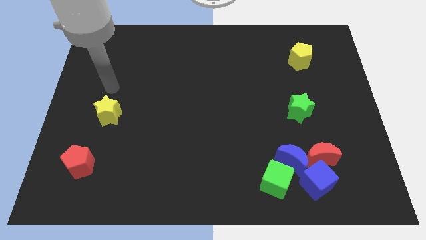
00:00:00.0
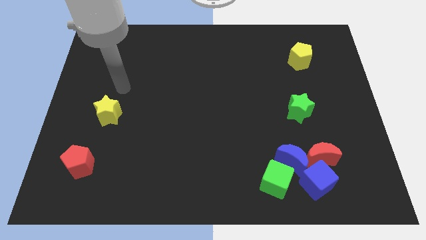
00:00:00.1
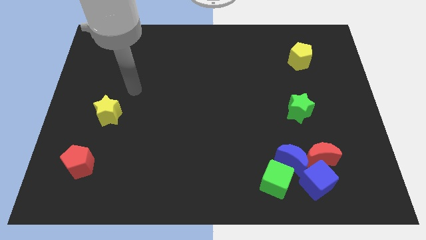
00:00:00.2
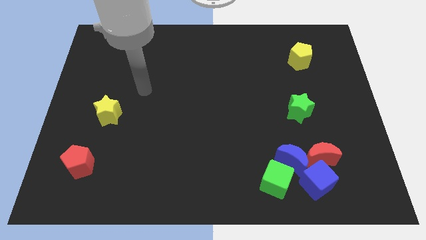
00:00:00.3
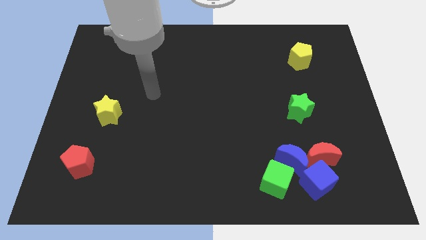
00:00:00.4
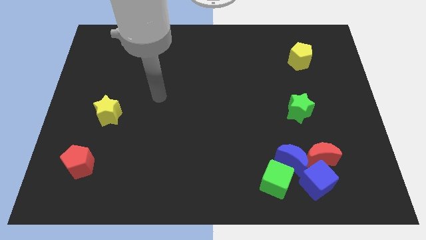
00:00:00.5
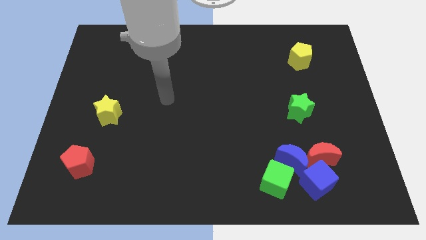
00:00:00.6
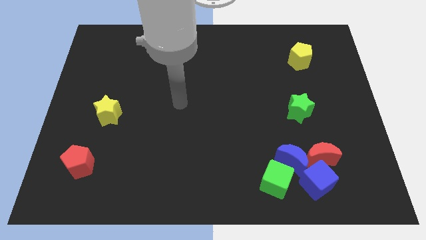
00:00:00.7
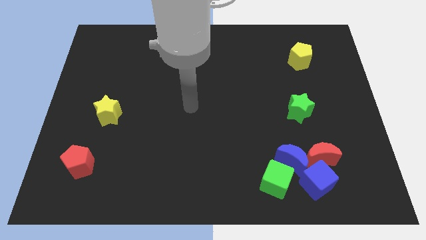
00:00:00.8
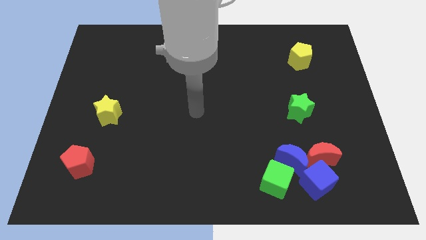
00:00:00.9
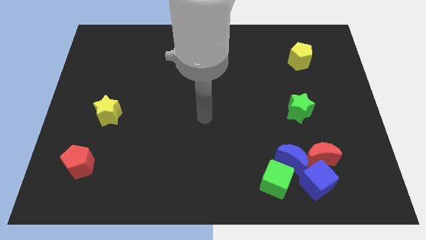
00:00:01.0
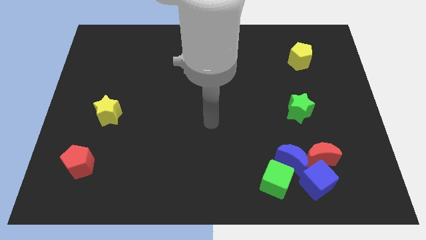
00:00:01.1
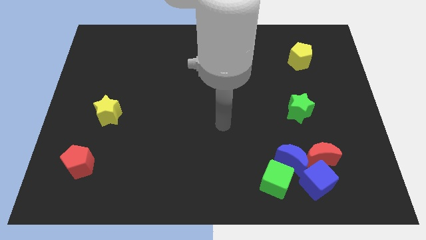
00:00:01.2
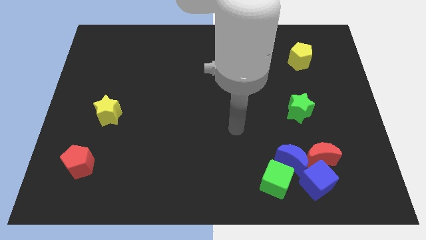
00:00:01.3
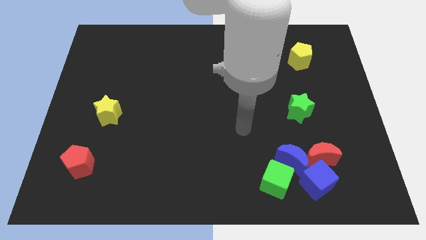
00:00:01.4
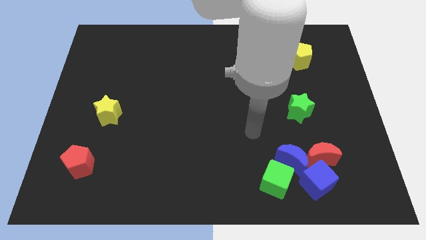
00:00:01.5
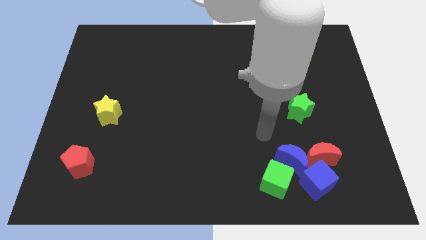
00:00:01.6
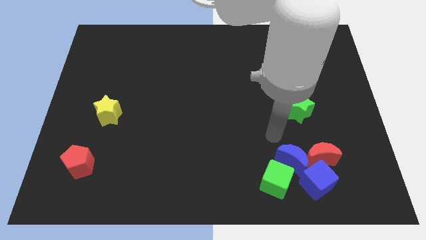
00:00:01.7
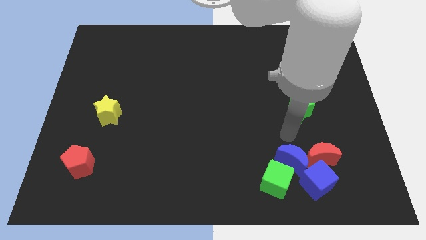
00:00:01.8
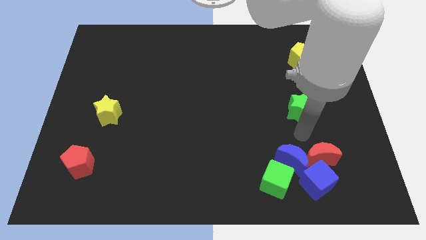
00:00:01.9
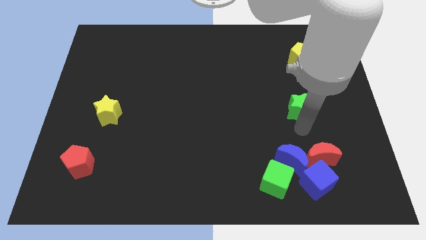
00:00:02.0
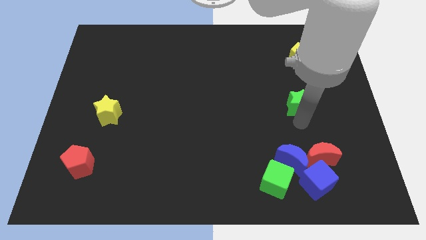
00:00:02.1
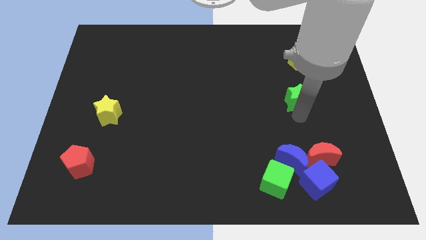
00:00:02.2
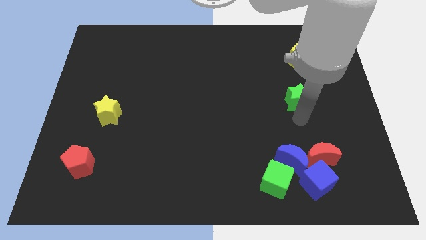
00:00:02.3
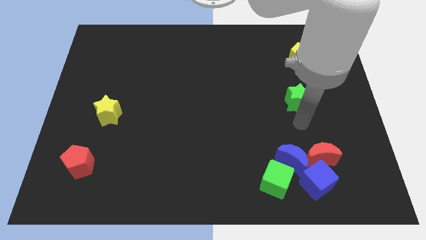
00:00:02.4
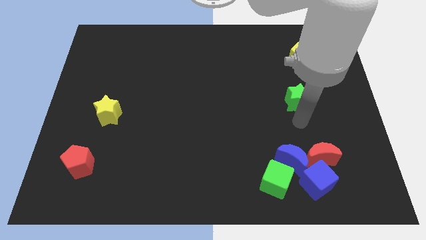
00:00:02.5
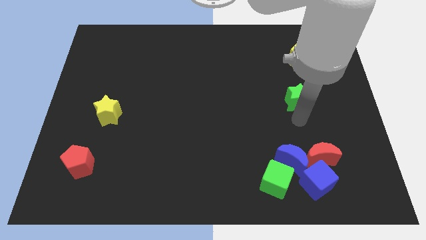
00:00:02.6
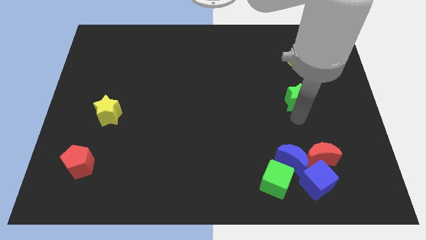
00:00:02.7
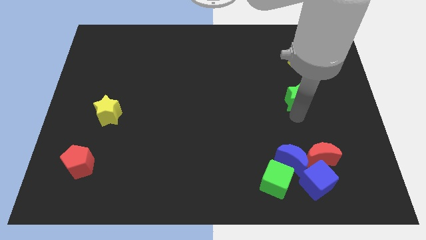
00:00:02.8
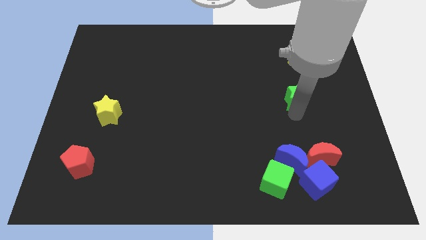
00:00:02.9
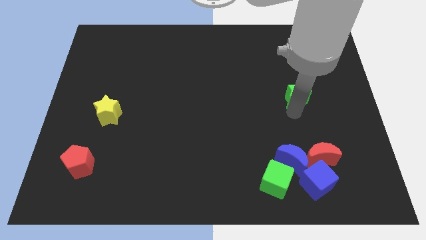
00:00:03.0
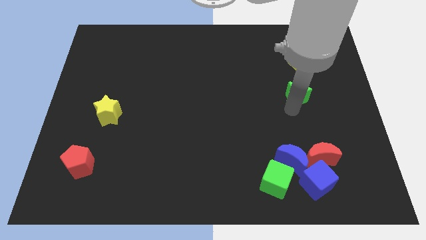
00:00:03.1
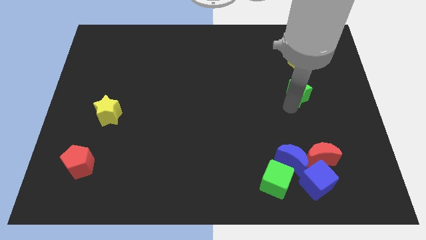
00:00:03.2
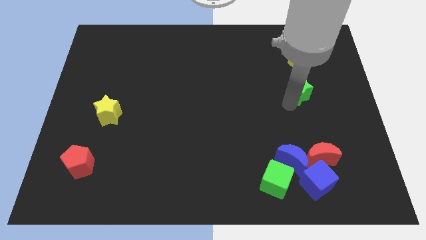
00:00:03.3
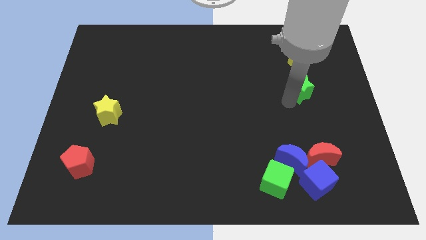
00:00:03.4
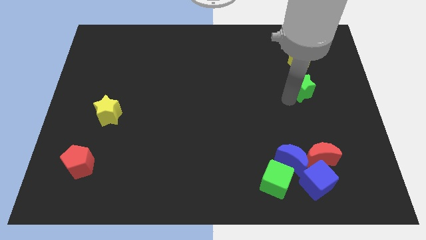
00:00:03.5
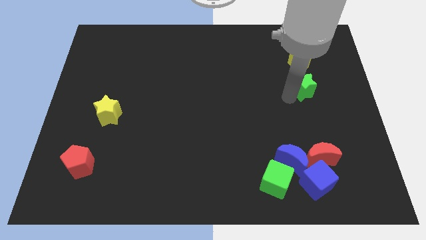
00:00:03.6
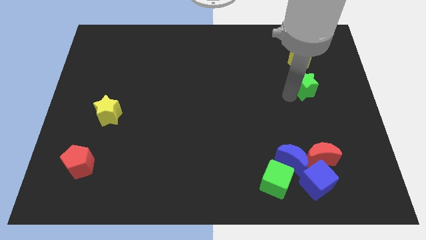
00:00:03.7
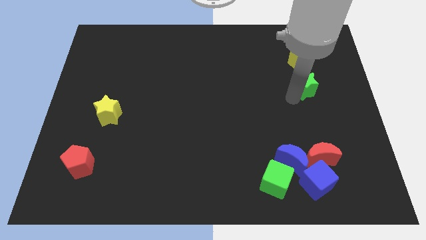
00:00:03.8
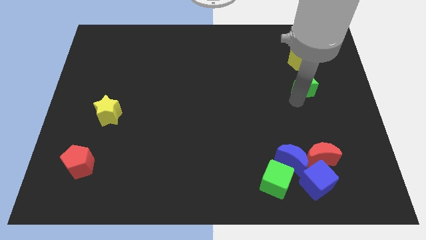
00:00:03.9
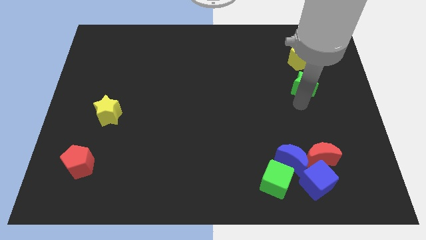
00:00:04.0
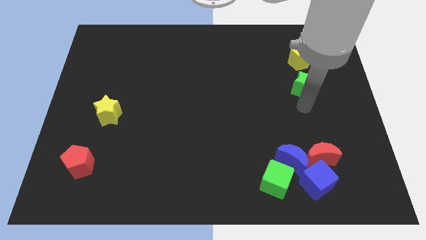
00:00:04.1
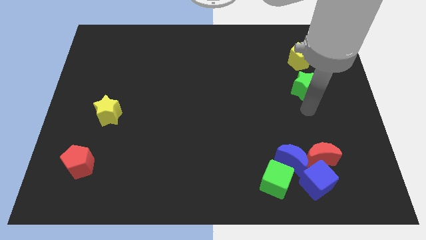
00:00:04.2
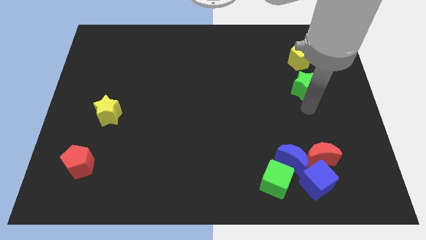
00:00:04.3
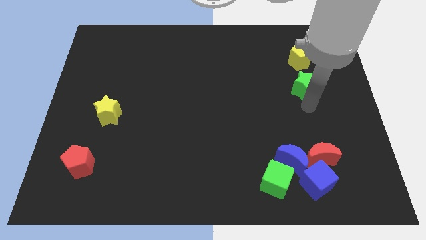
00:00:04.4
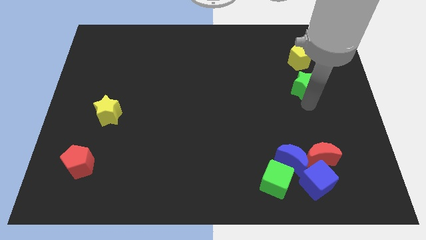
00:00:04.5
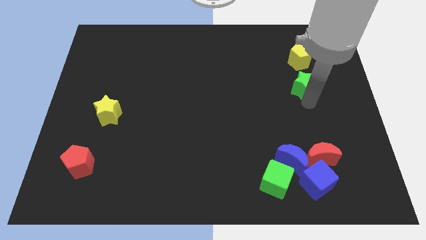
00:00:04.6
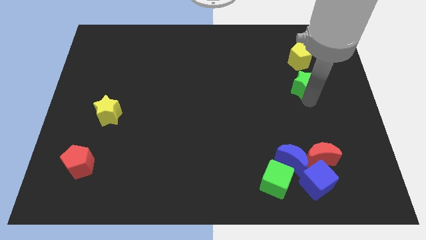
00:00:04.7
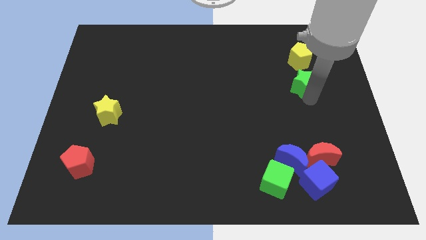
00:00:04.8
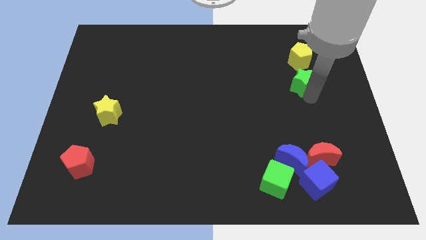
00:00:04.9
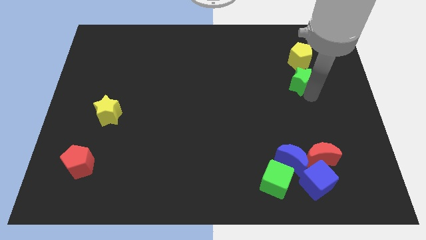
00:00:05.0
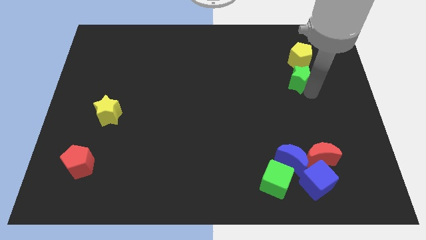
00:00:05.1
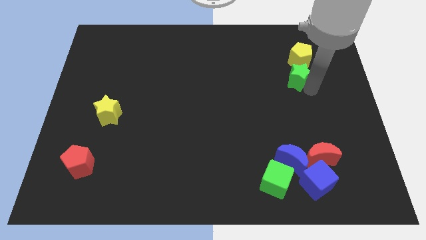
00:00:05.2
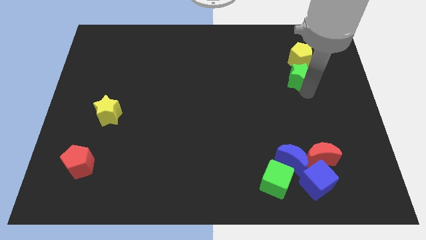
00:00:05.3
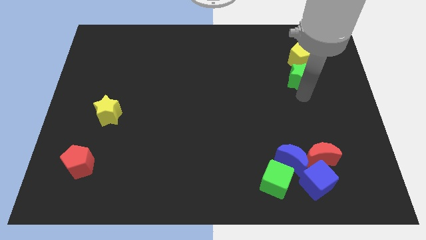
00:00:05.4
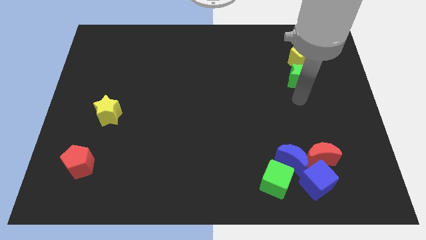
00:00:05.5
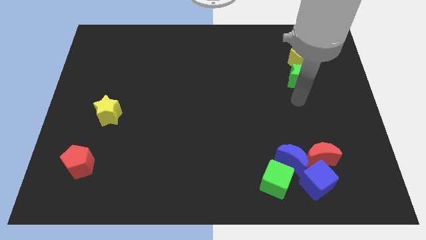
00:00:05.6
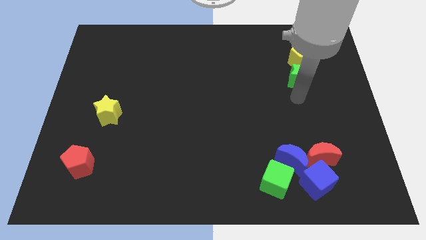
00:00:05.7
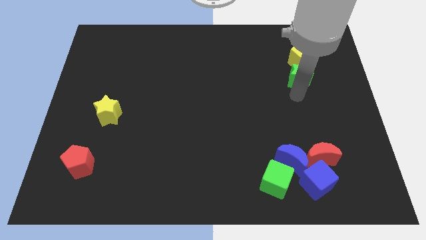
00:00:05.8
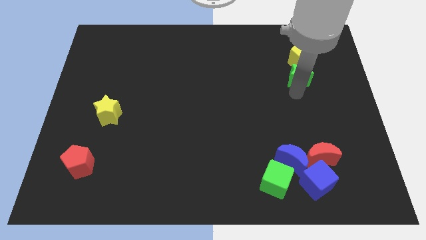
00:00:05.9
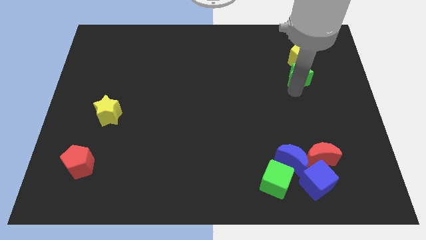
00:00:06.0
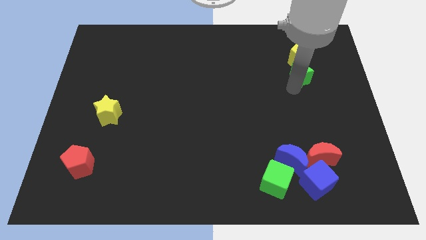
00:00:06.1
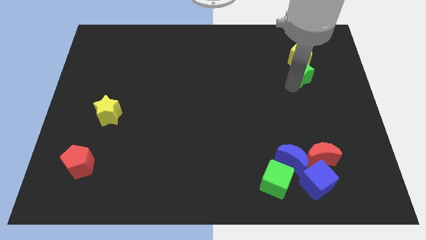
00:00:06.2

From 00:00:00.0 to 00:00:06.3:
slide the green star next to the yellow pentagon

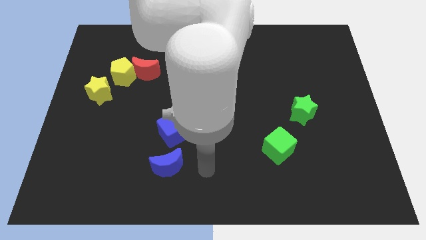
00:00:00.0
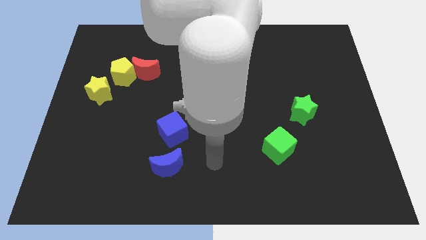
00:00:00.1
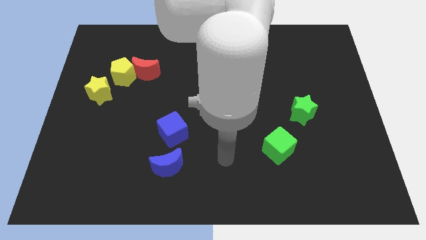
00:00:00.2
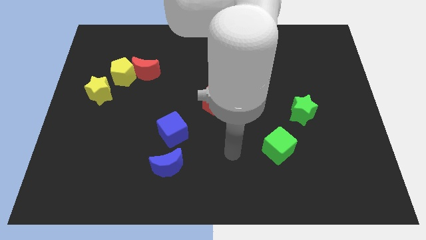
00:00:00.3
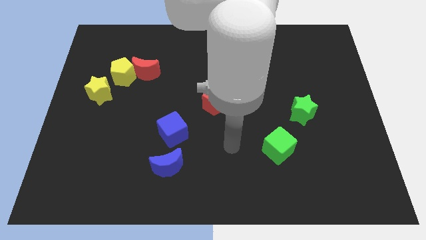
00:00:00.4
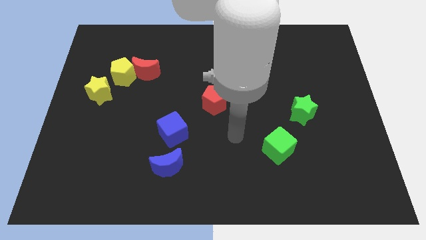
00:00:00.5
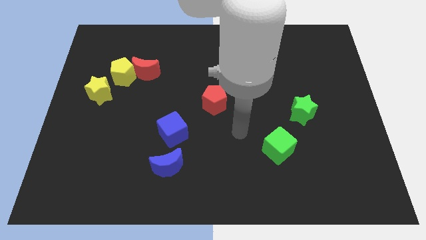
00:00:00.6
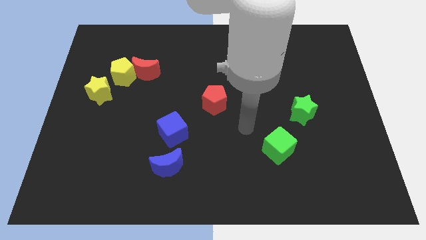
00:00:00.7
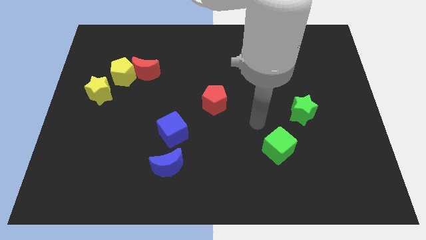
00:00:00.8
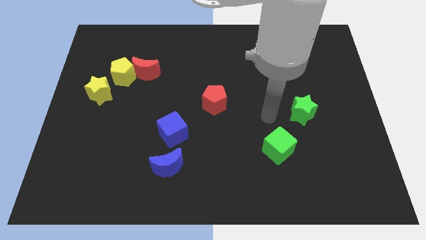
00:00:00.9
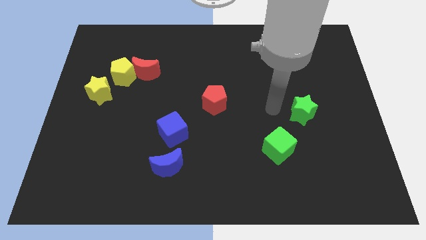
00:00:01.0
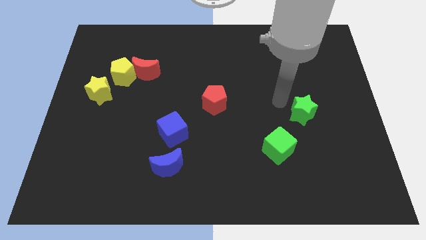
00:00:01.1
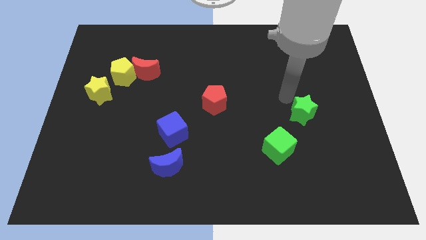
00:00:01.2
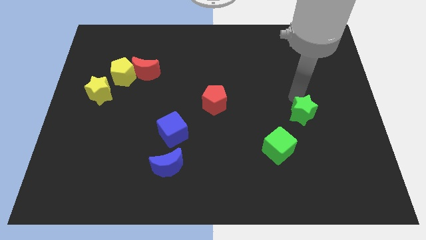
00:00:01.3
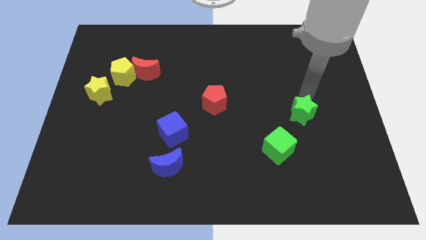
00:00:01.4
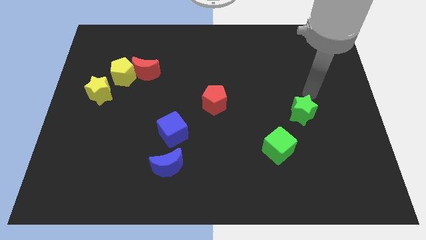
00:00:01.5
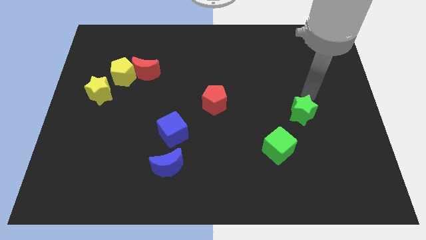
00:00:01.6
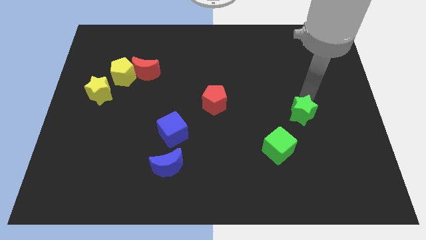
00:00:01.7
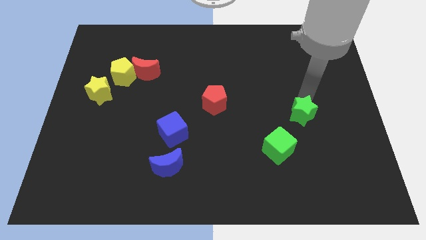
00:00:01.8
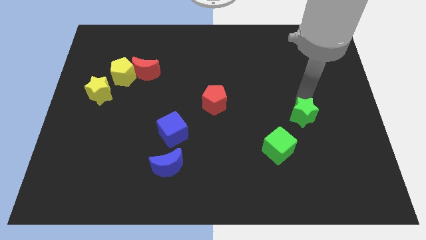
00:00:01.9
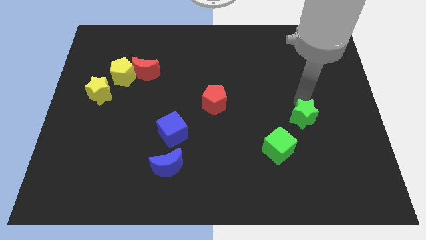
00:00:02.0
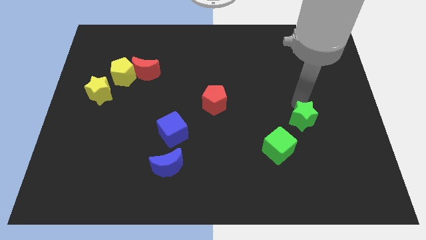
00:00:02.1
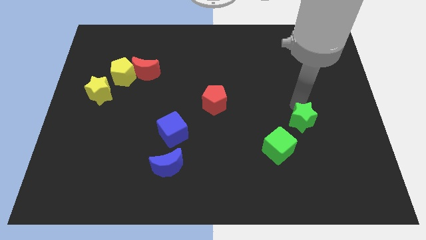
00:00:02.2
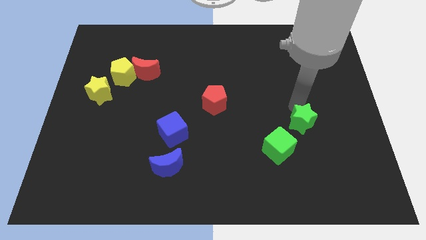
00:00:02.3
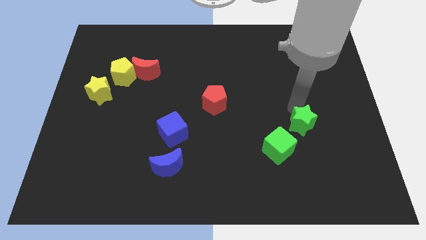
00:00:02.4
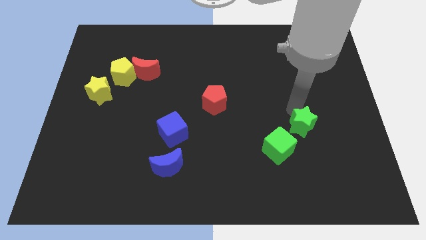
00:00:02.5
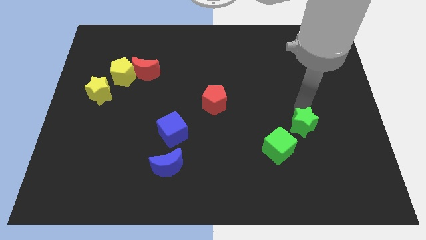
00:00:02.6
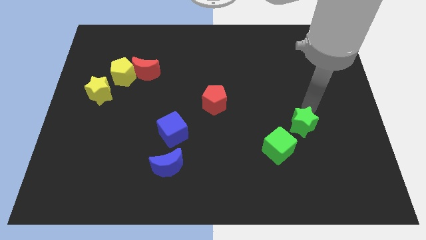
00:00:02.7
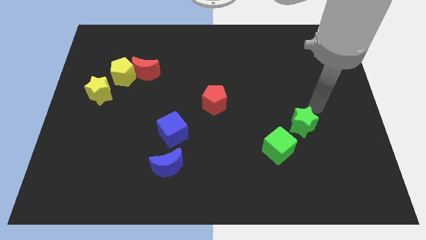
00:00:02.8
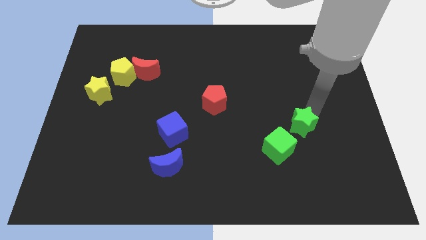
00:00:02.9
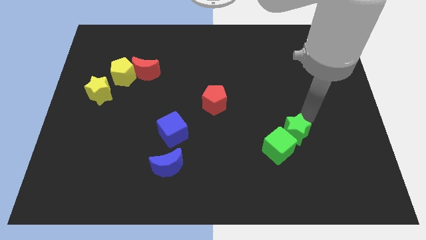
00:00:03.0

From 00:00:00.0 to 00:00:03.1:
slide the green star close to the green cube
